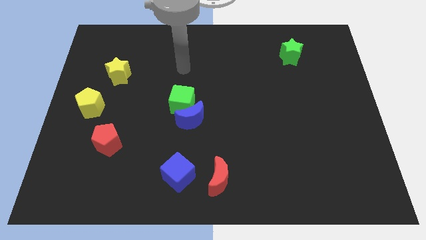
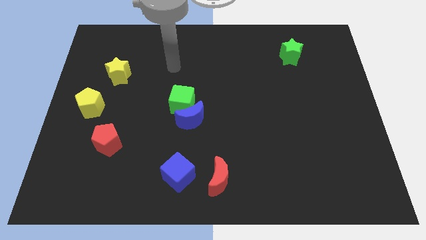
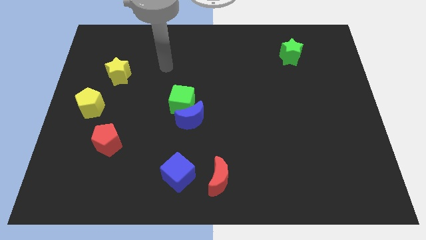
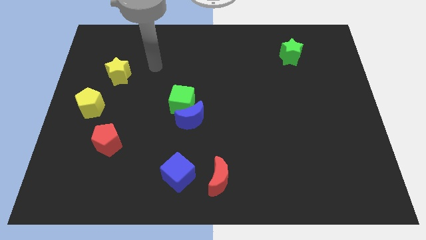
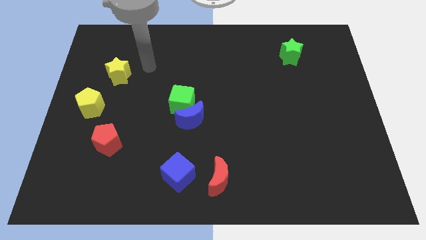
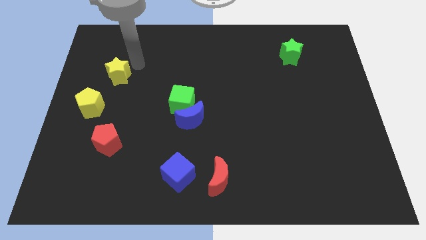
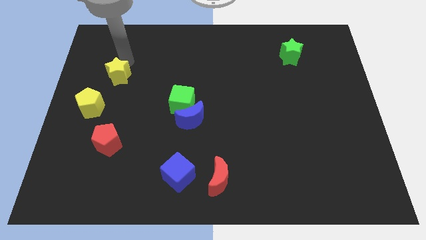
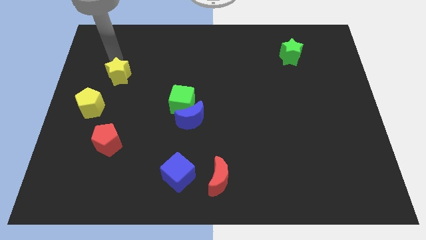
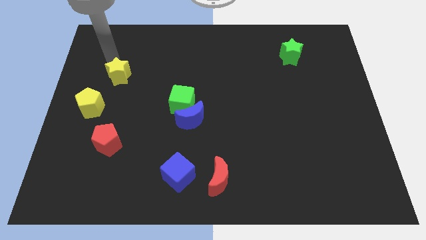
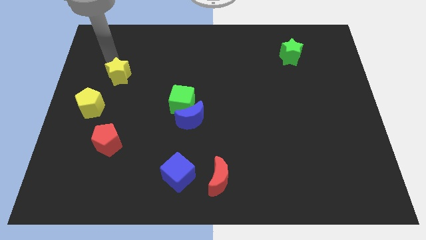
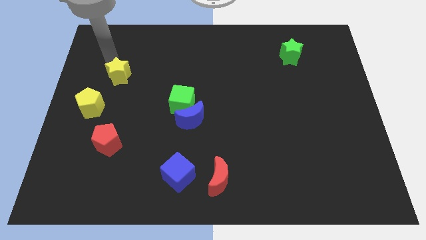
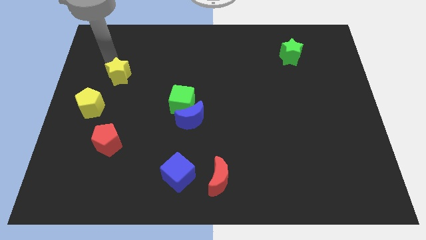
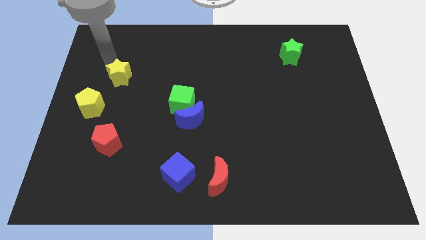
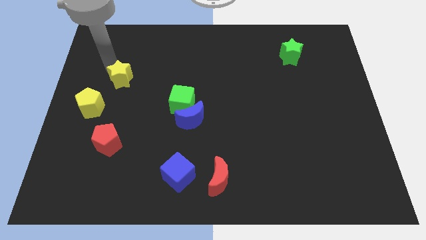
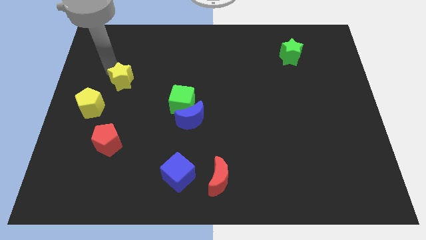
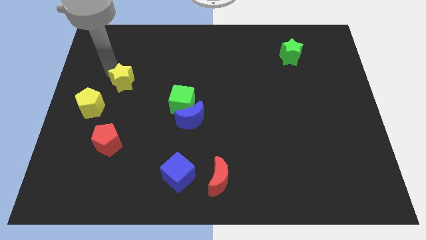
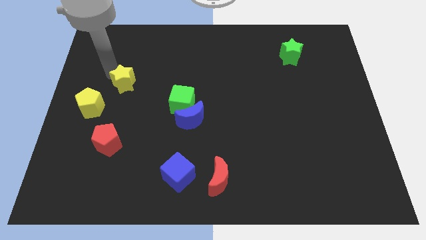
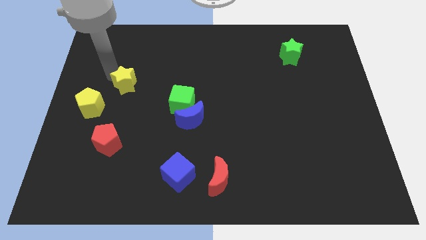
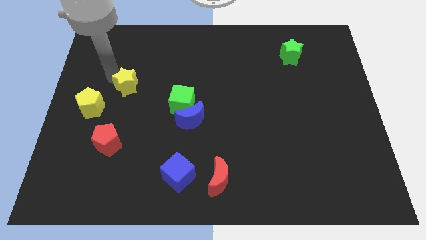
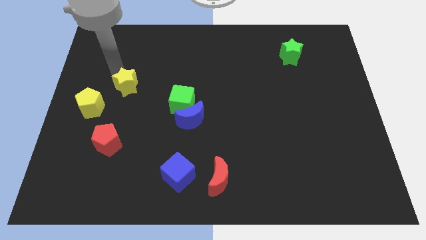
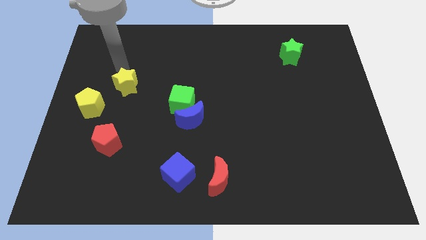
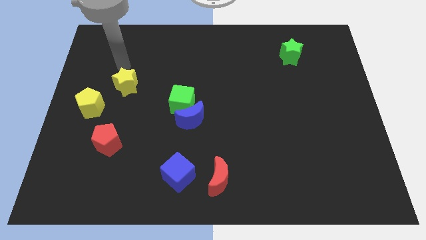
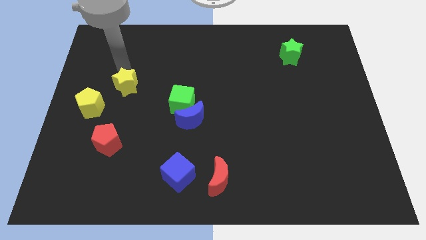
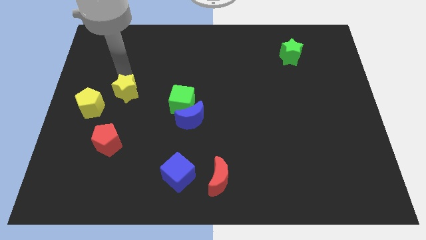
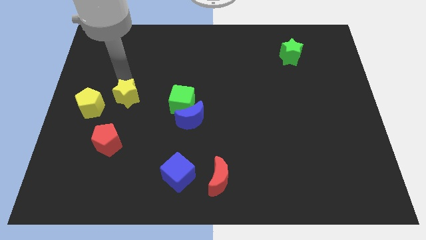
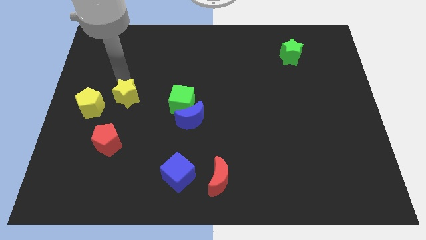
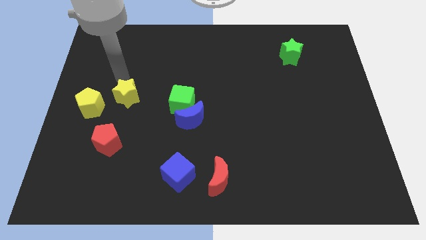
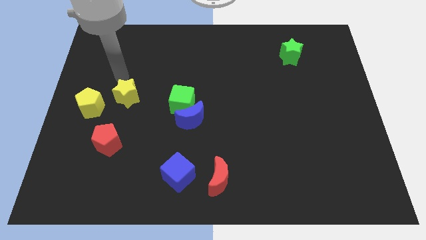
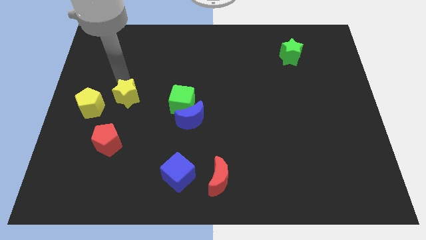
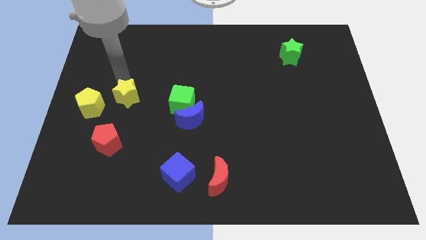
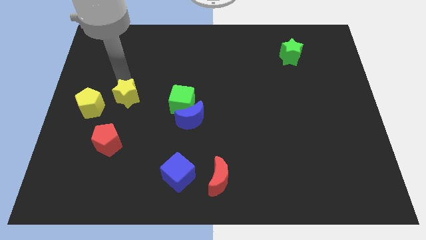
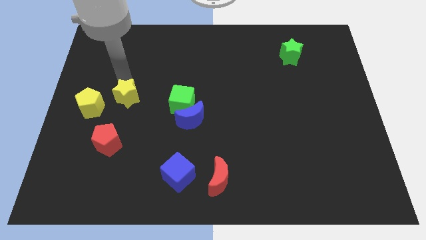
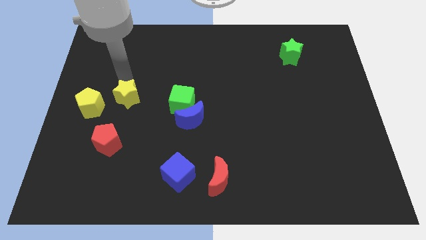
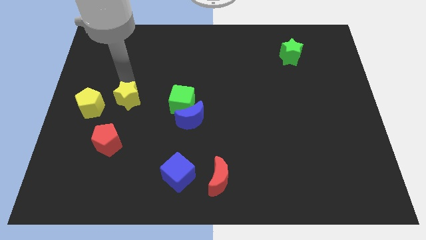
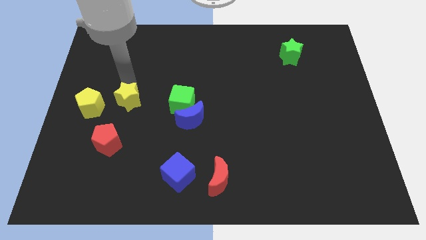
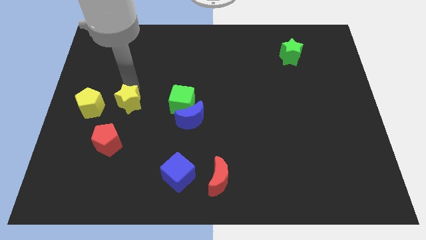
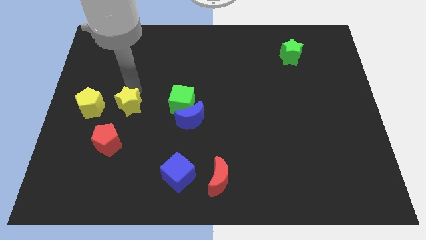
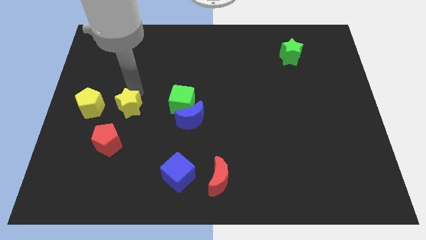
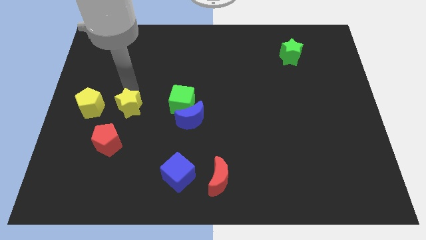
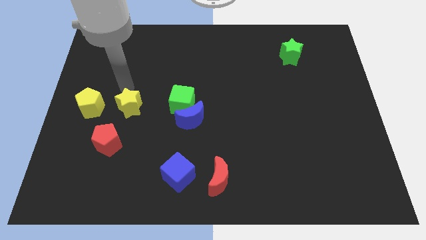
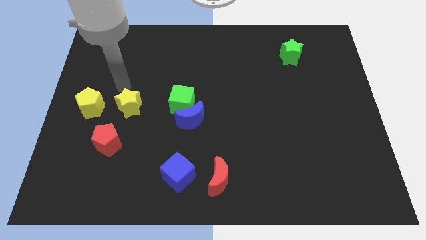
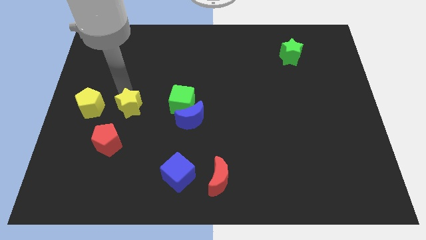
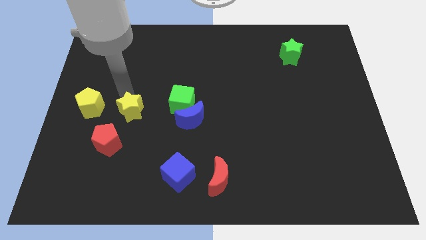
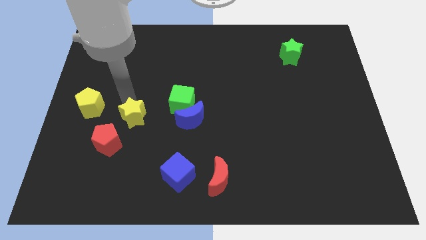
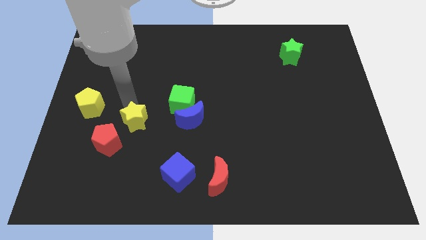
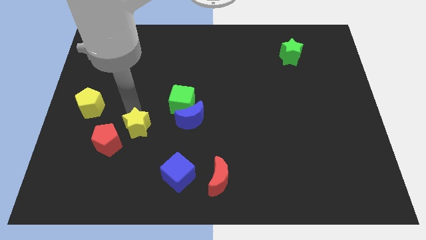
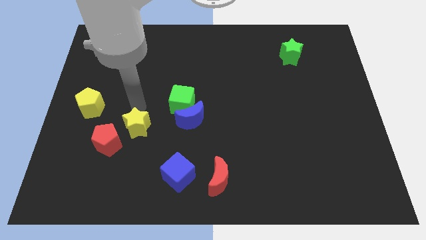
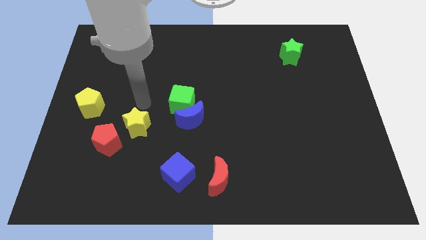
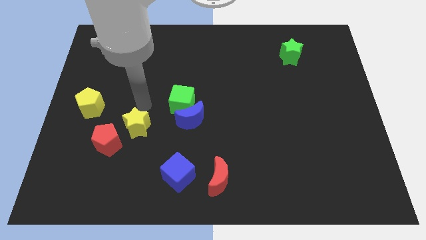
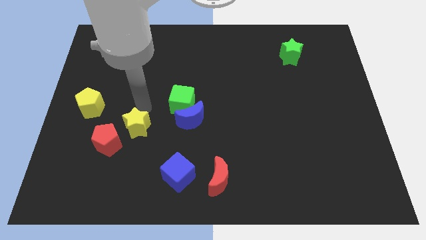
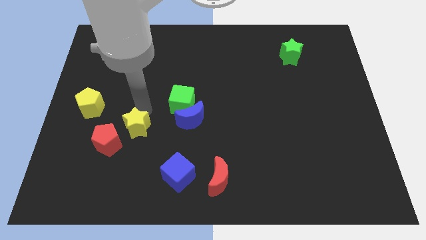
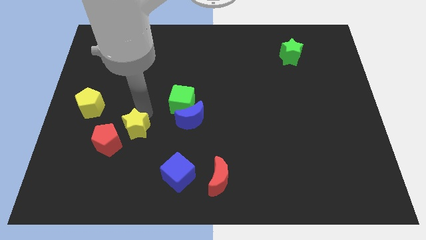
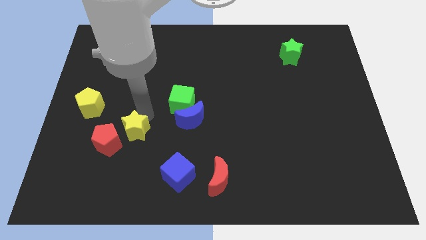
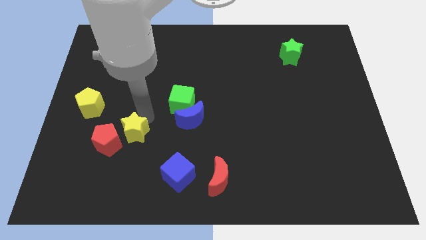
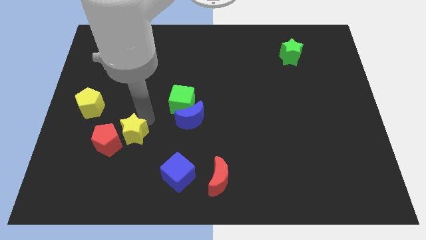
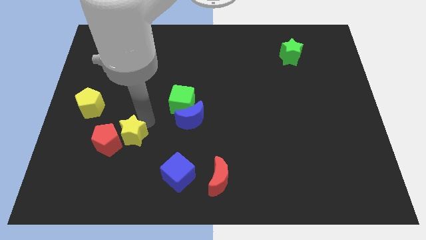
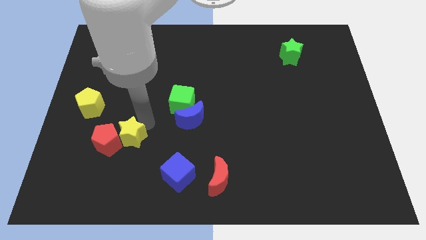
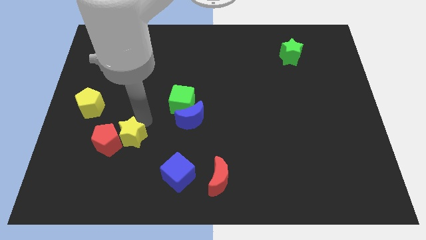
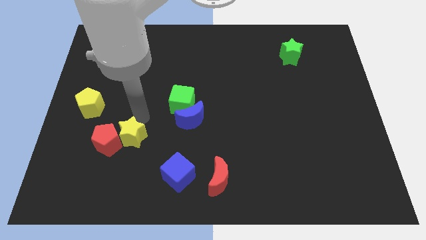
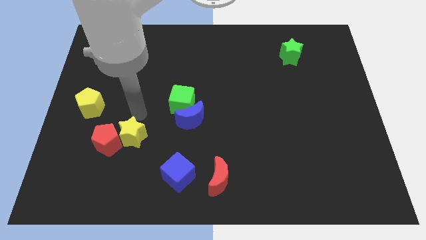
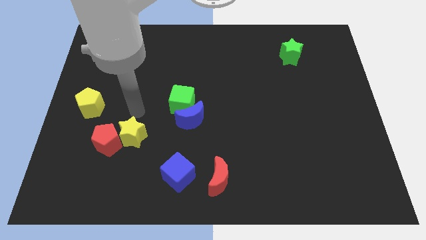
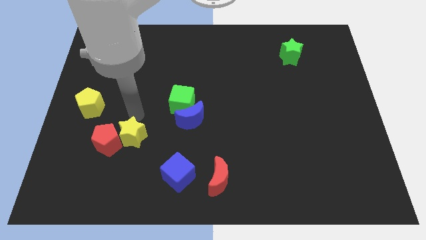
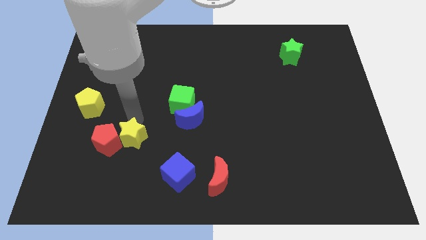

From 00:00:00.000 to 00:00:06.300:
push the yellow star diagonally down and to the right of the red pentagon
